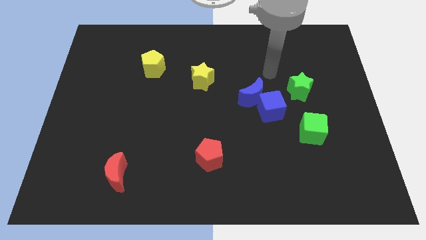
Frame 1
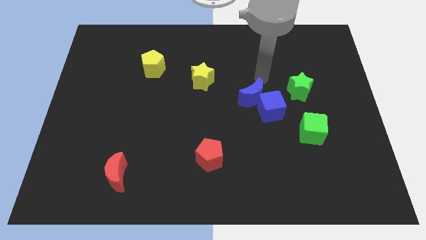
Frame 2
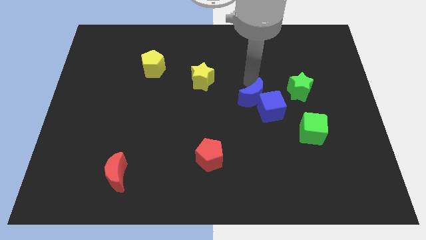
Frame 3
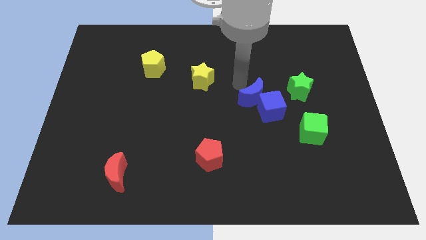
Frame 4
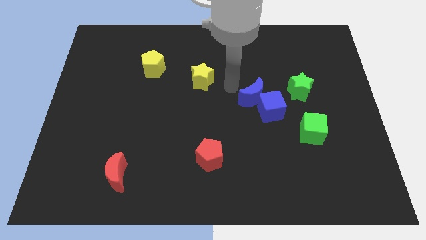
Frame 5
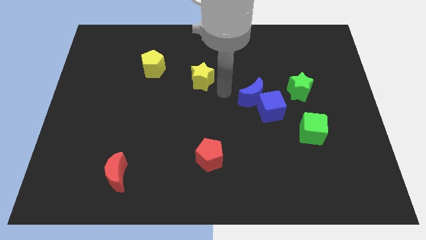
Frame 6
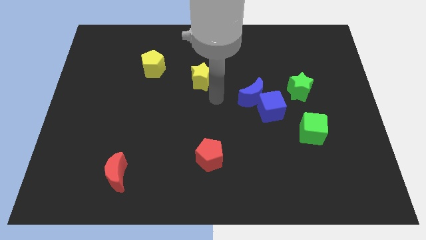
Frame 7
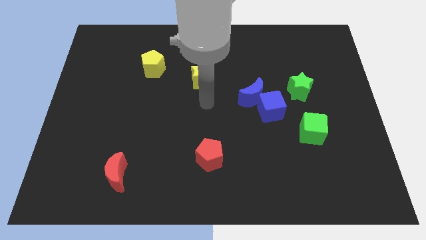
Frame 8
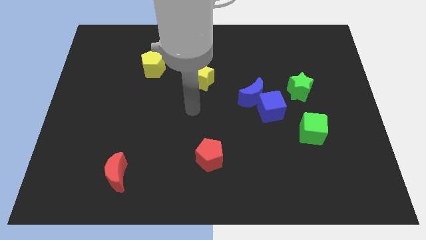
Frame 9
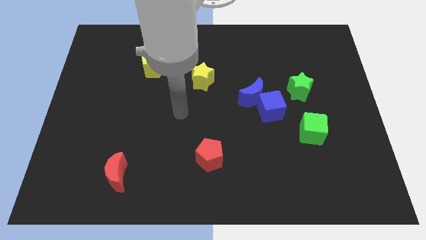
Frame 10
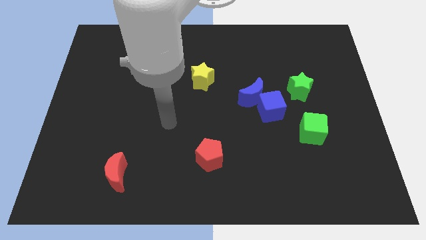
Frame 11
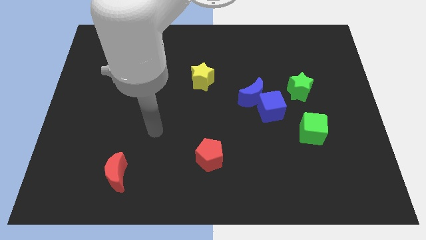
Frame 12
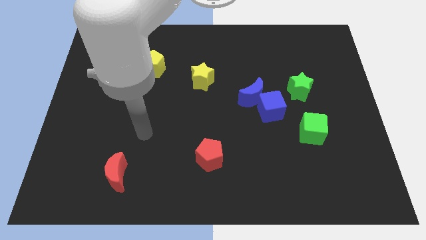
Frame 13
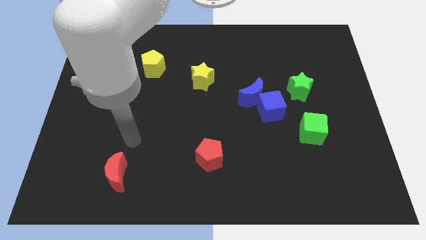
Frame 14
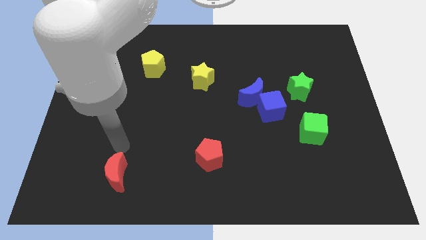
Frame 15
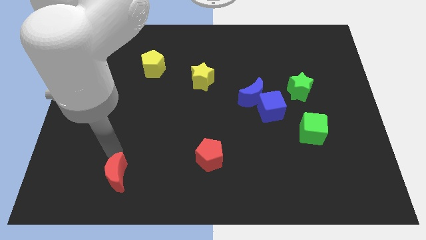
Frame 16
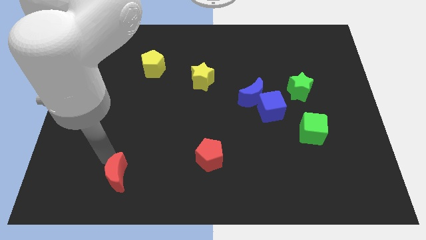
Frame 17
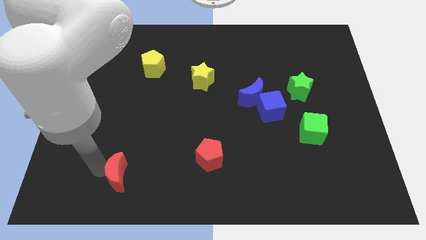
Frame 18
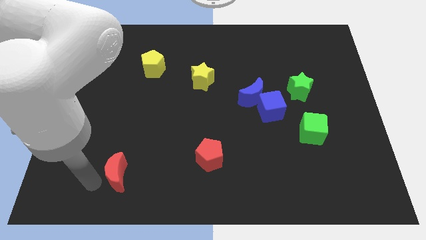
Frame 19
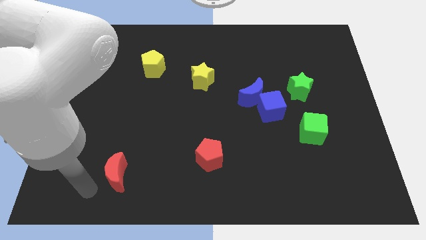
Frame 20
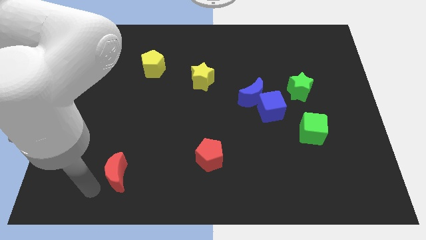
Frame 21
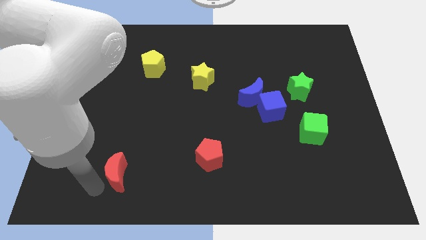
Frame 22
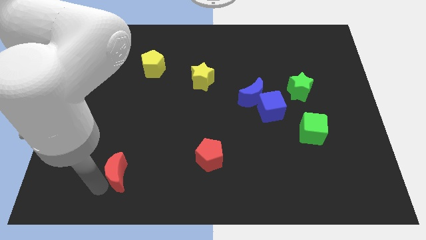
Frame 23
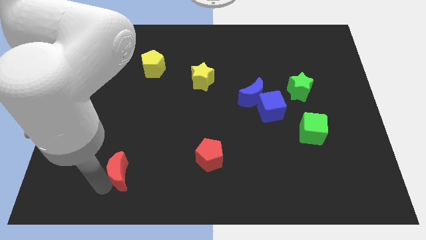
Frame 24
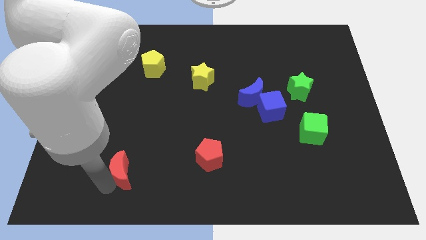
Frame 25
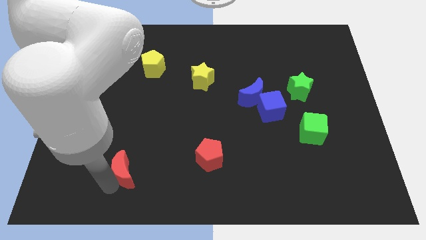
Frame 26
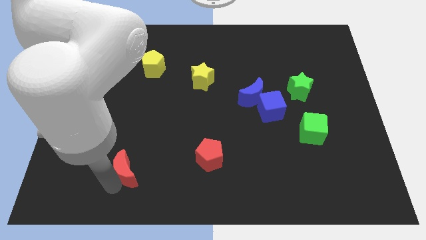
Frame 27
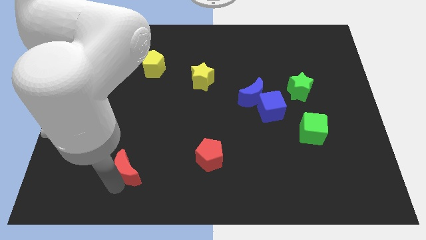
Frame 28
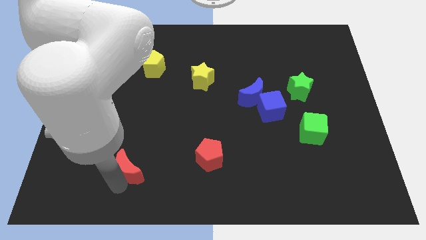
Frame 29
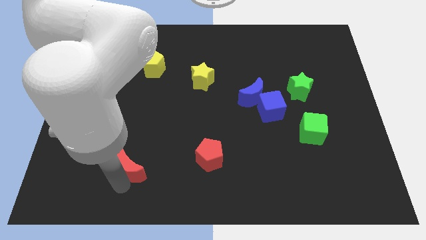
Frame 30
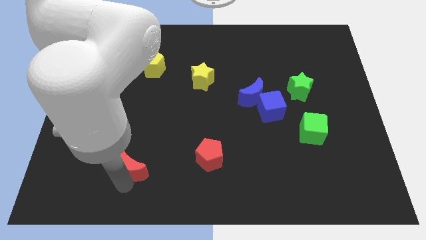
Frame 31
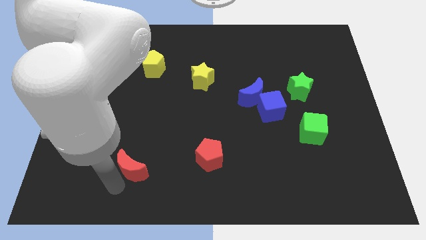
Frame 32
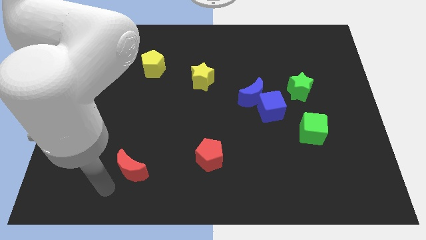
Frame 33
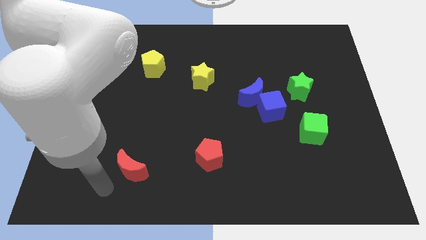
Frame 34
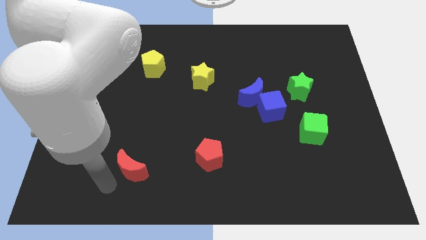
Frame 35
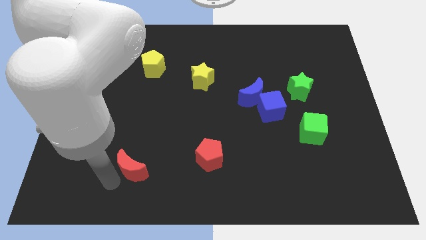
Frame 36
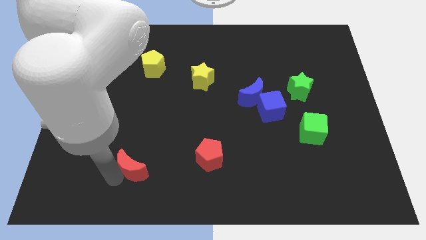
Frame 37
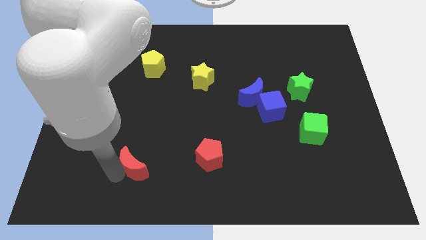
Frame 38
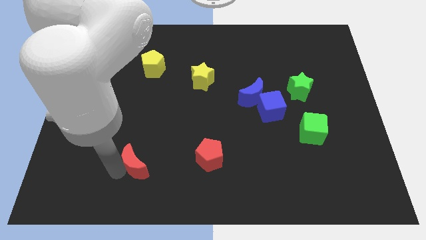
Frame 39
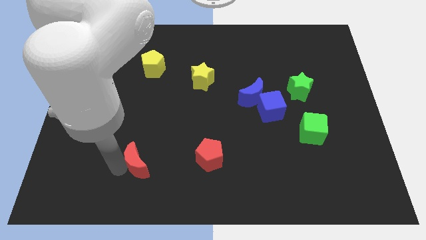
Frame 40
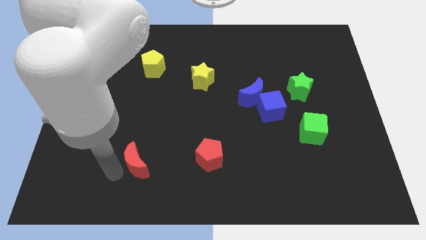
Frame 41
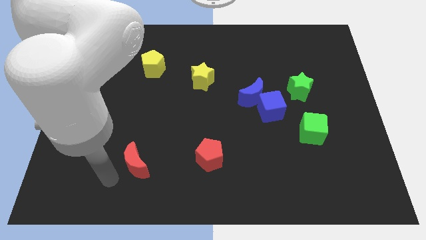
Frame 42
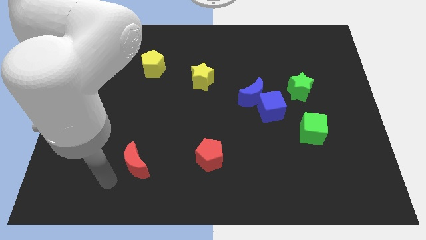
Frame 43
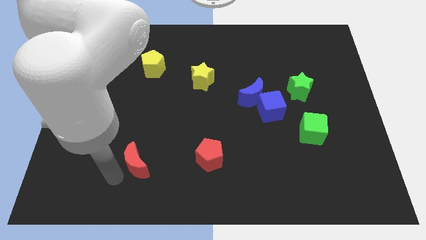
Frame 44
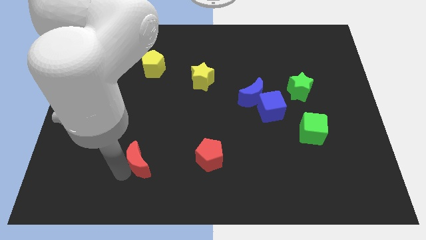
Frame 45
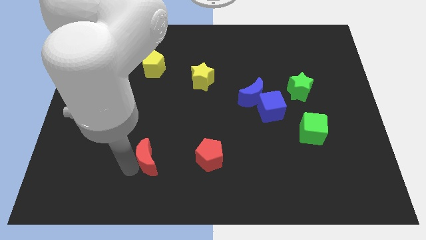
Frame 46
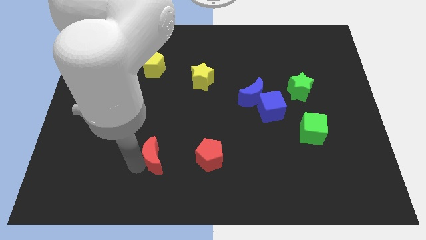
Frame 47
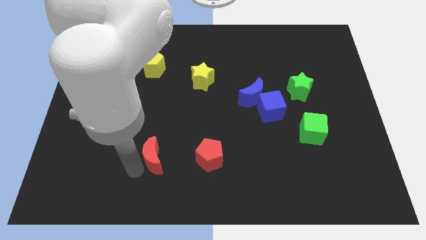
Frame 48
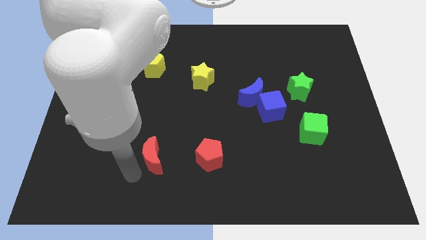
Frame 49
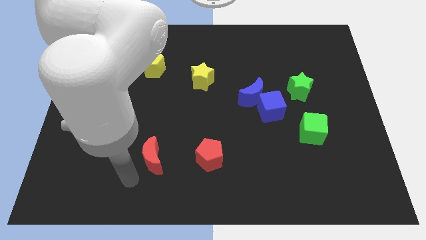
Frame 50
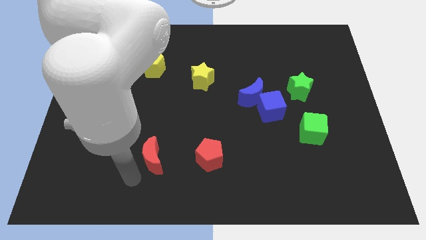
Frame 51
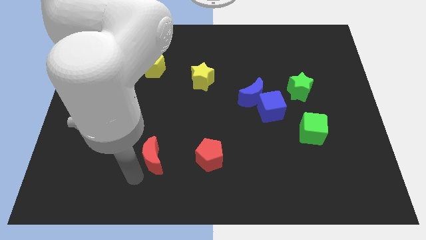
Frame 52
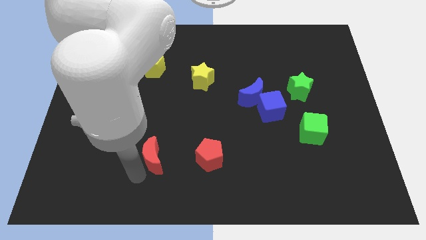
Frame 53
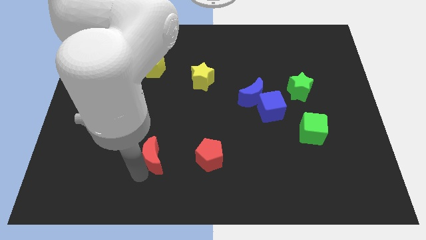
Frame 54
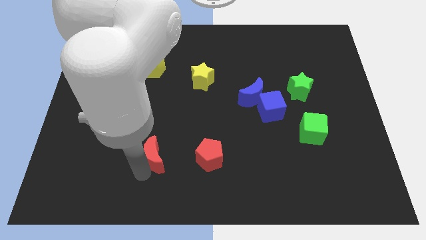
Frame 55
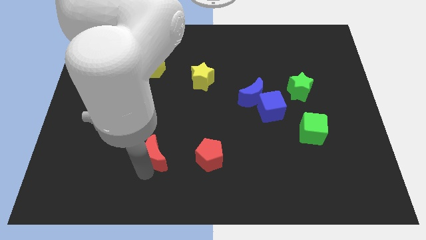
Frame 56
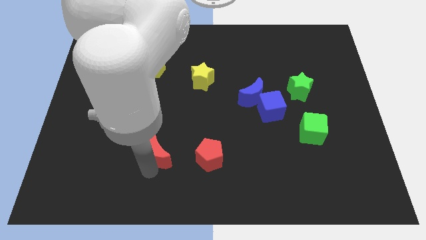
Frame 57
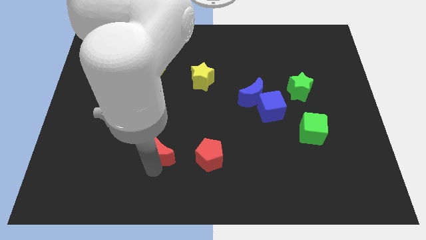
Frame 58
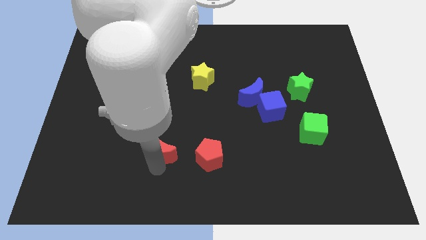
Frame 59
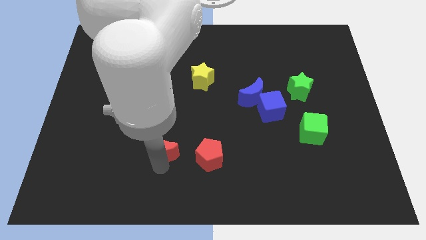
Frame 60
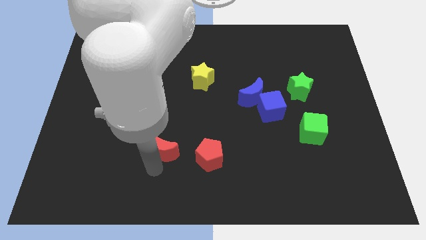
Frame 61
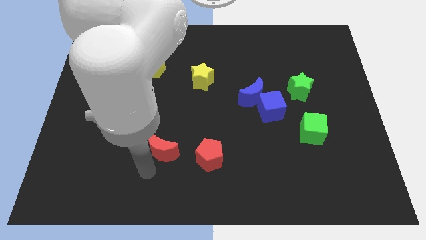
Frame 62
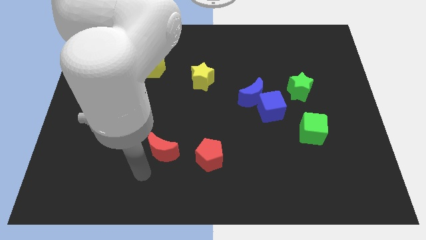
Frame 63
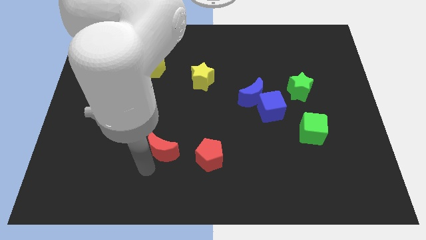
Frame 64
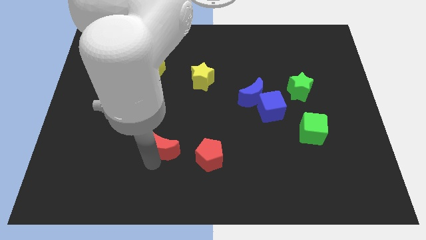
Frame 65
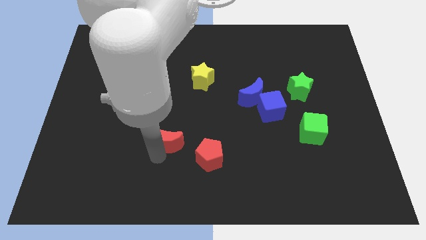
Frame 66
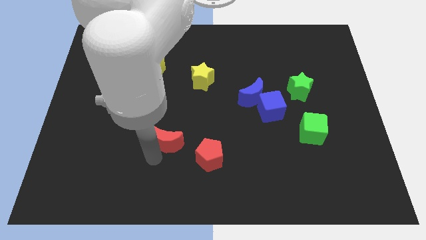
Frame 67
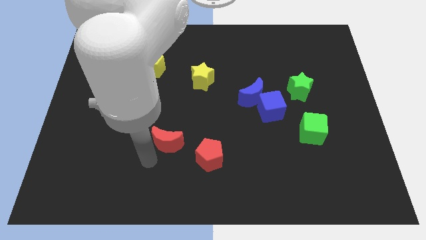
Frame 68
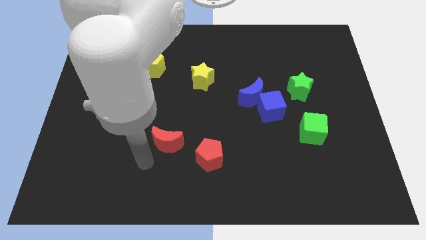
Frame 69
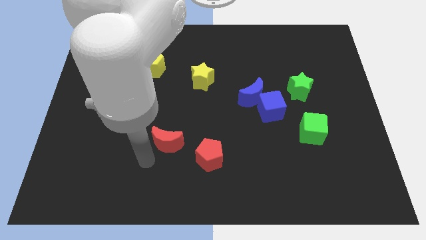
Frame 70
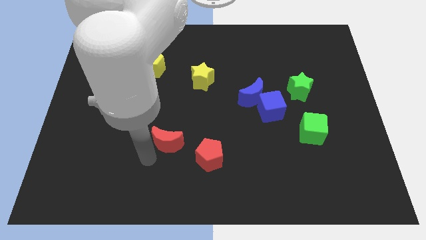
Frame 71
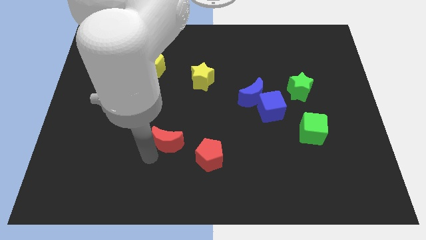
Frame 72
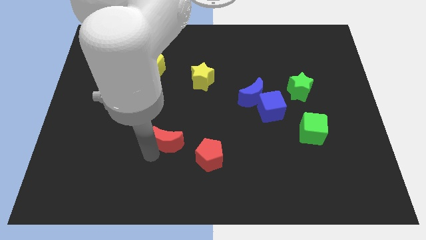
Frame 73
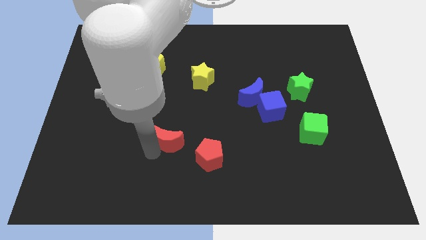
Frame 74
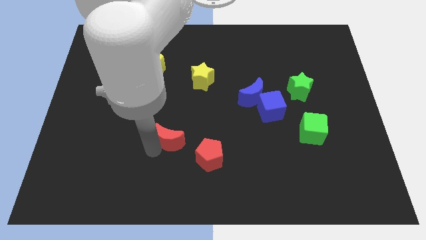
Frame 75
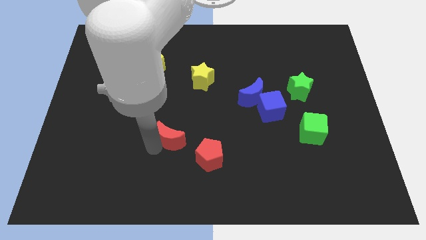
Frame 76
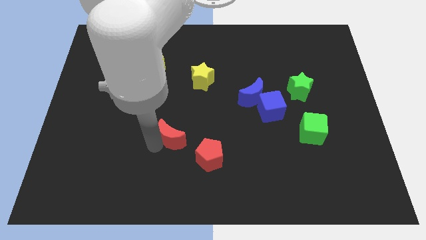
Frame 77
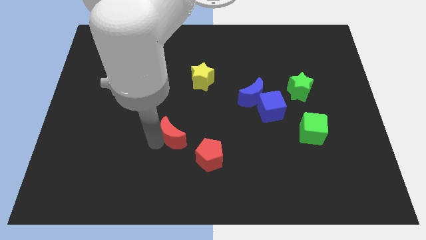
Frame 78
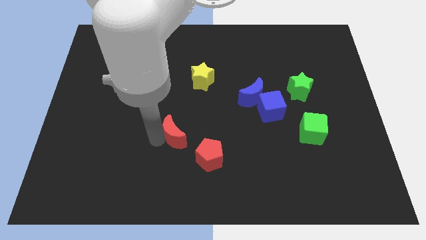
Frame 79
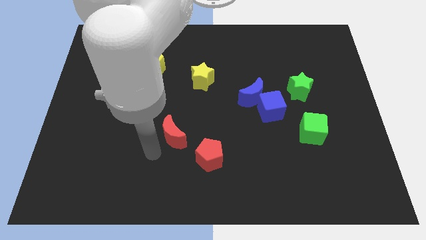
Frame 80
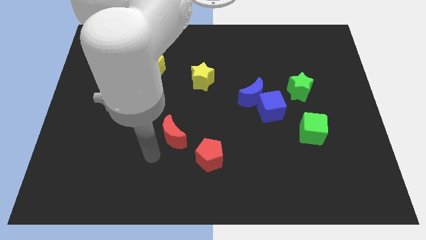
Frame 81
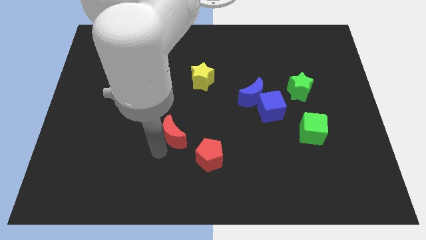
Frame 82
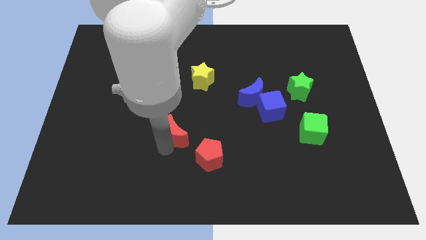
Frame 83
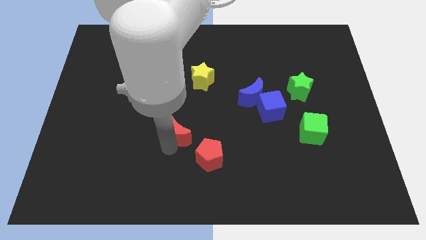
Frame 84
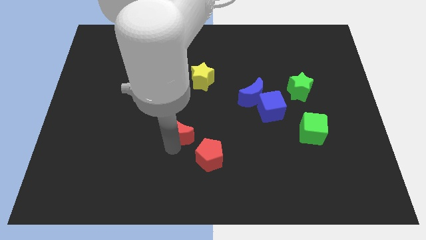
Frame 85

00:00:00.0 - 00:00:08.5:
put the red moon to the middle of the board
